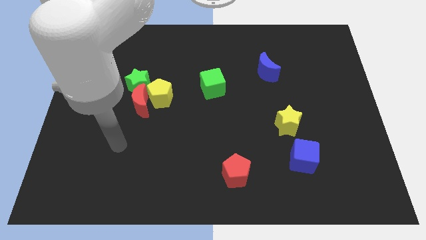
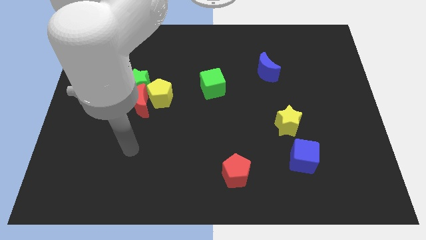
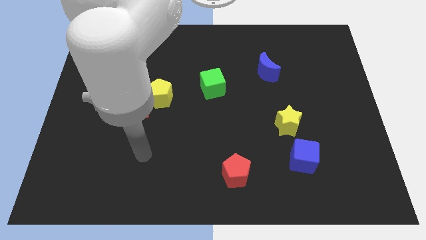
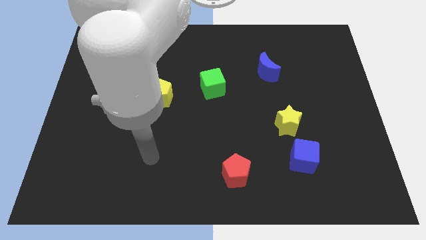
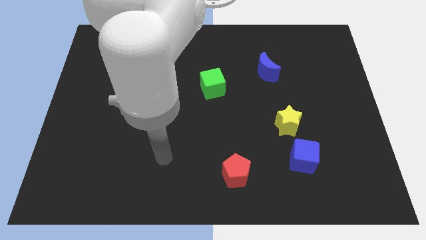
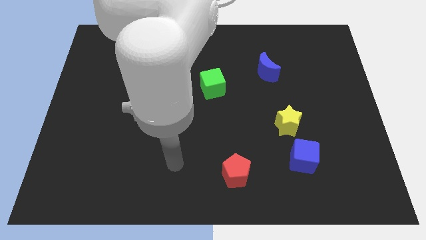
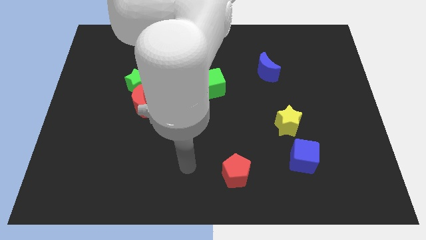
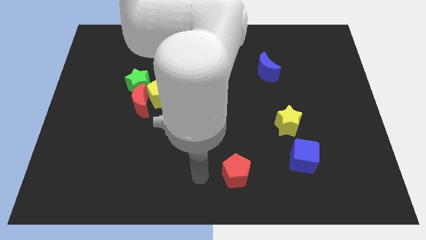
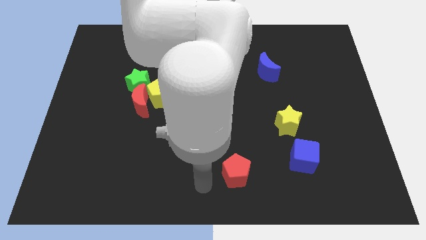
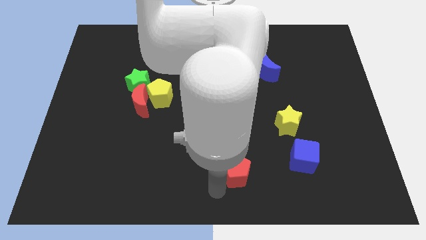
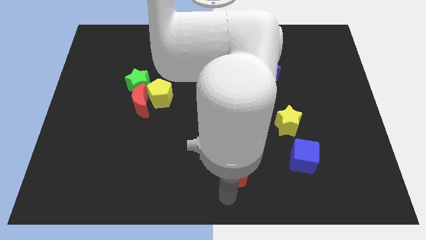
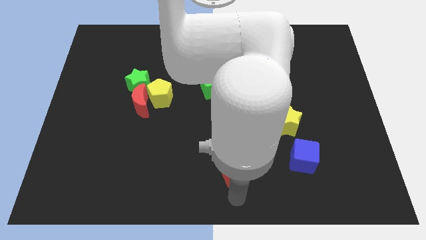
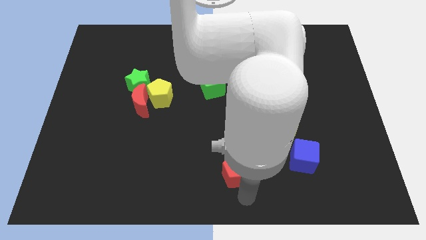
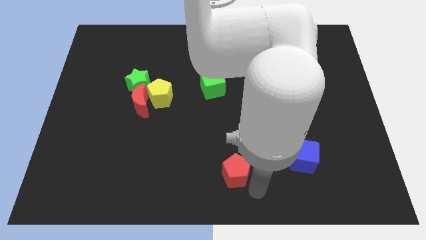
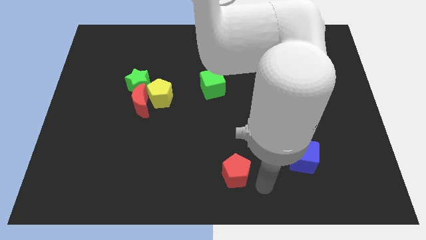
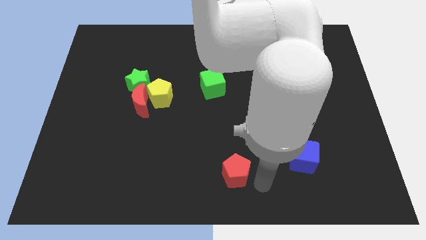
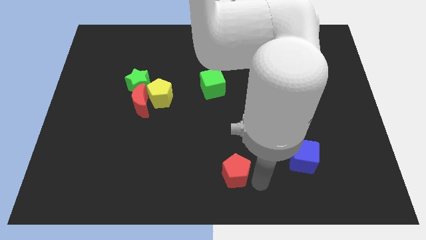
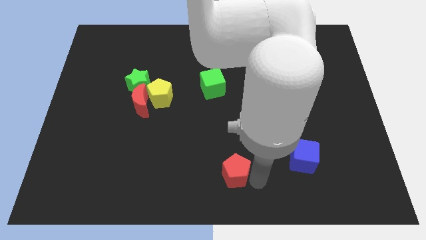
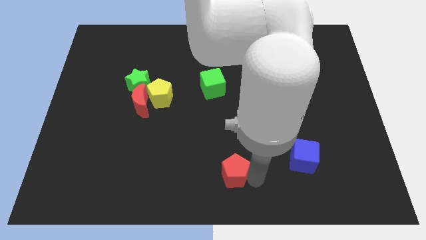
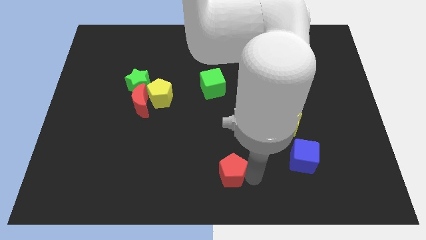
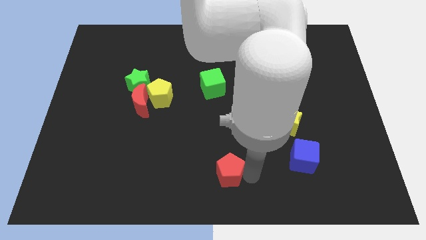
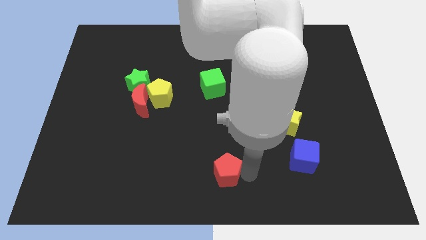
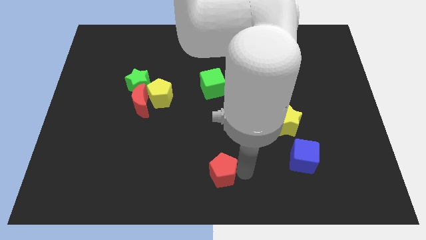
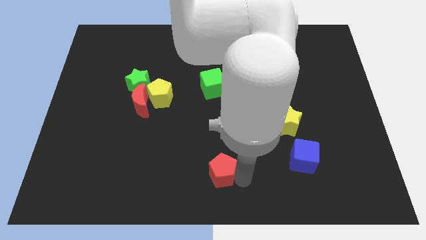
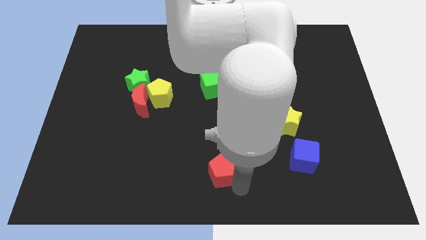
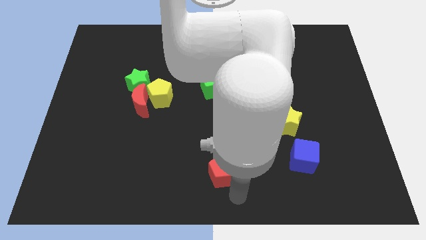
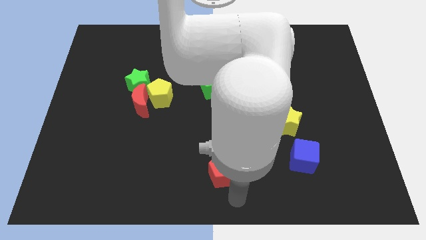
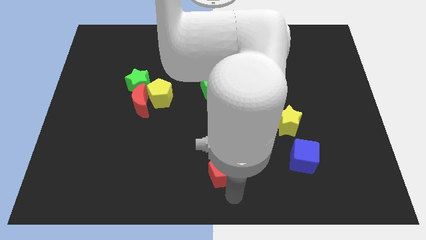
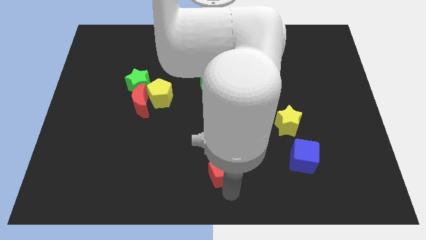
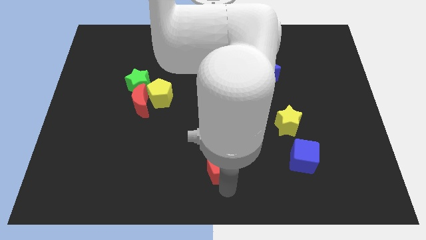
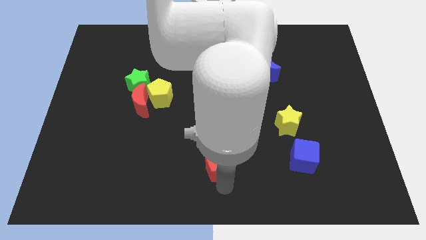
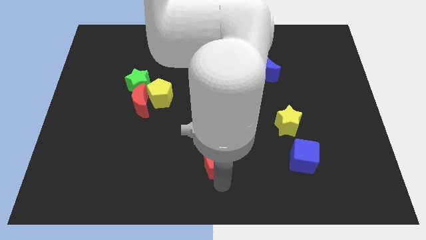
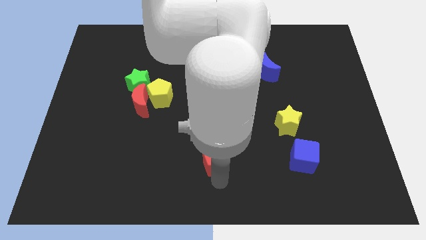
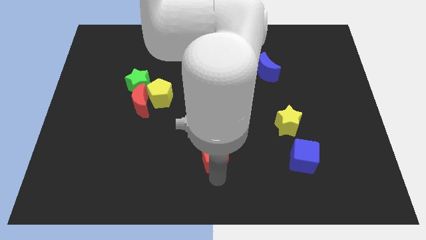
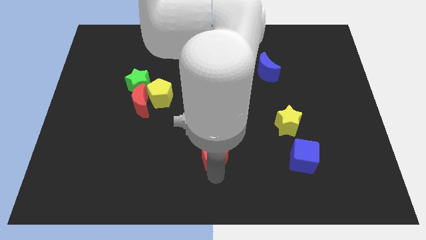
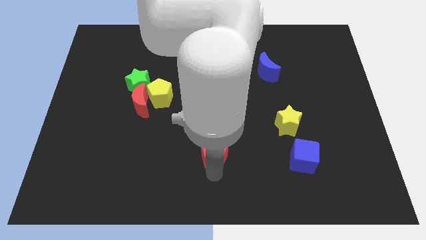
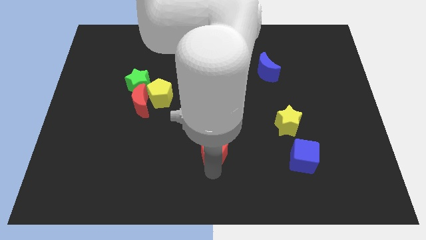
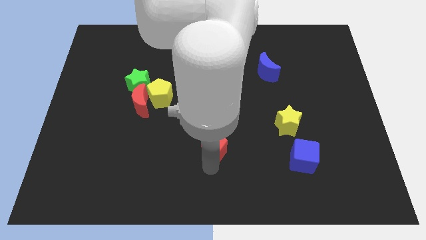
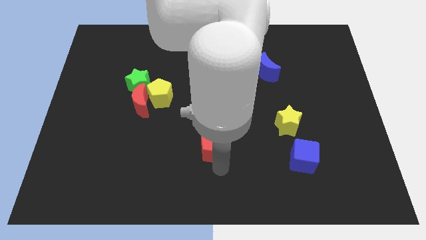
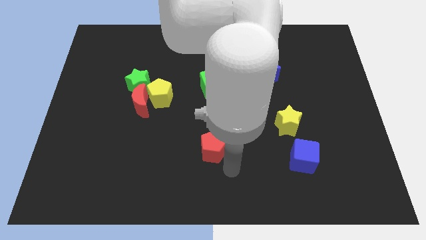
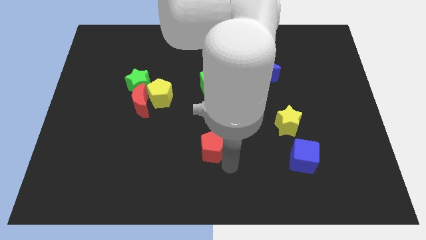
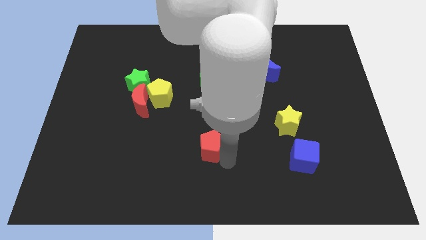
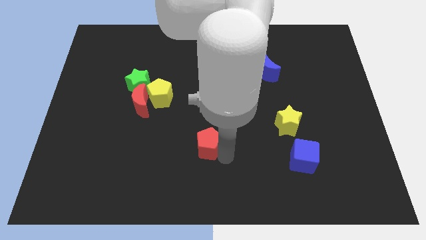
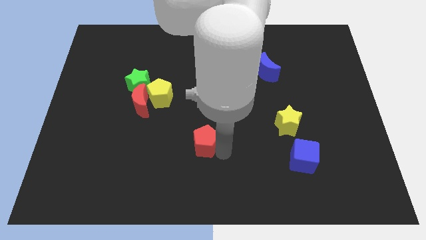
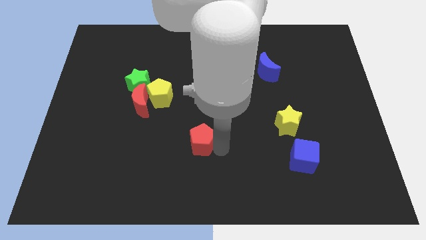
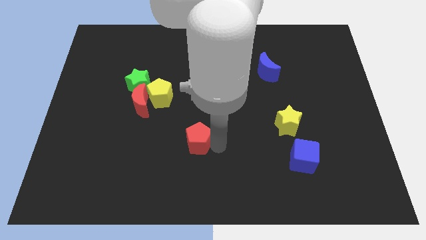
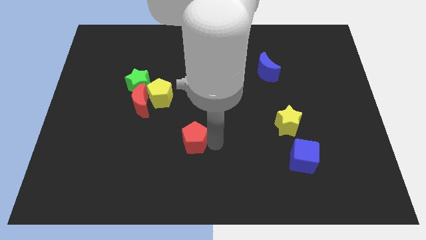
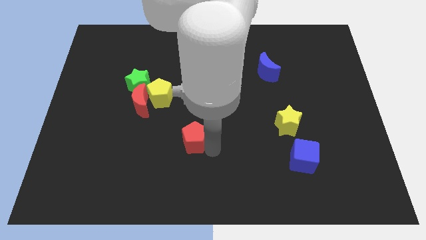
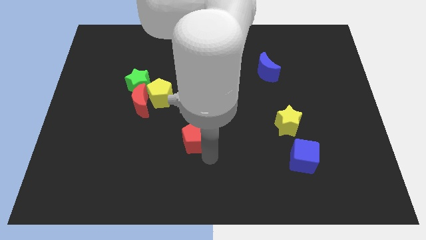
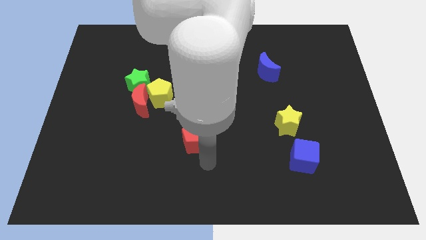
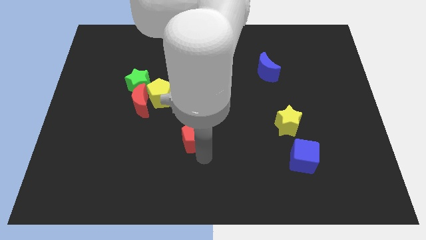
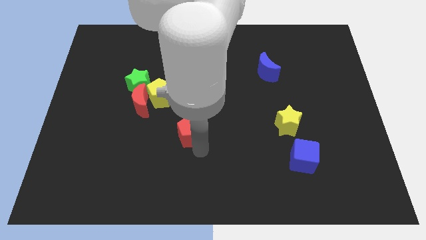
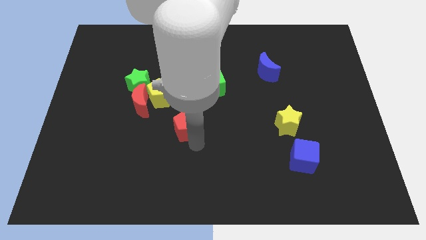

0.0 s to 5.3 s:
slide the red pentagon to the bottom right of the yellow pentagon

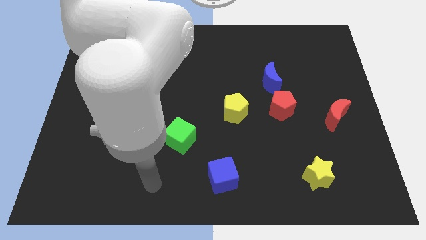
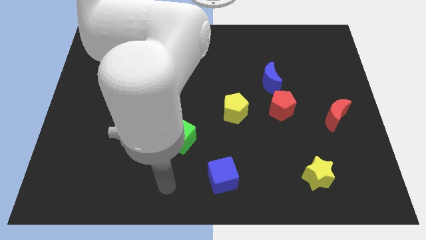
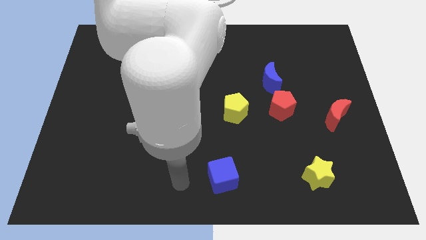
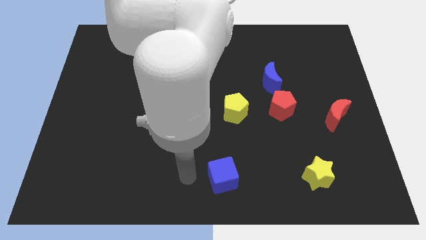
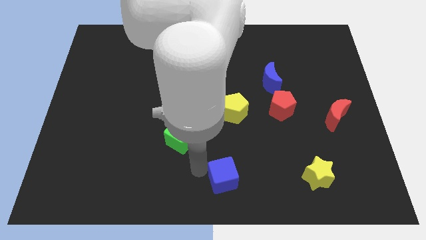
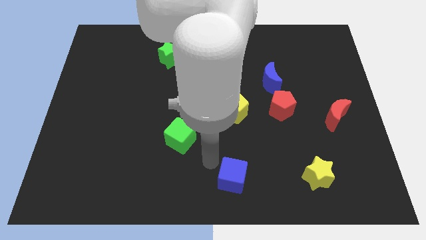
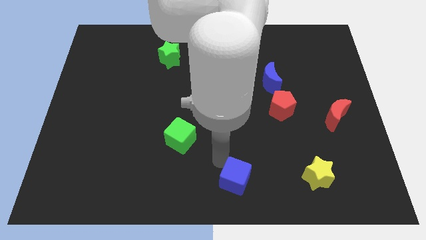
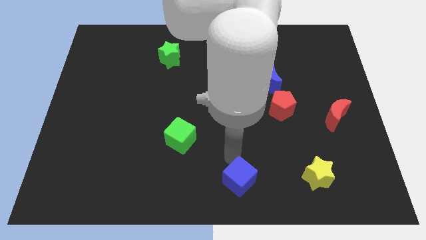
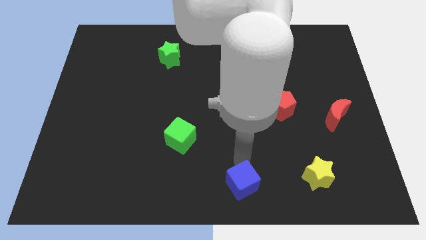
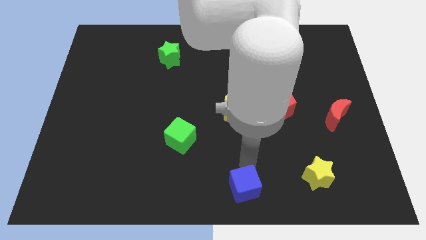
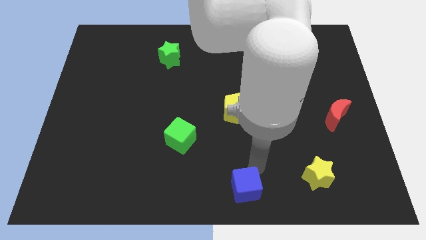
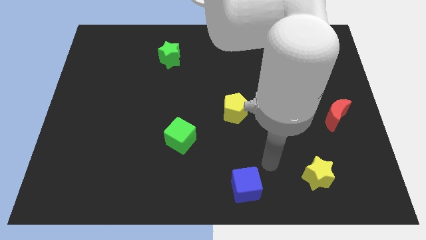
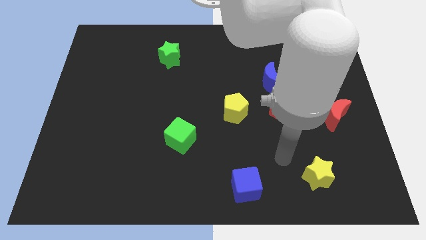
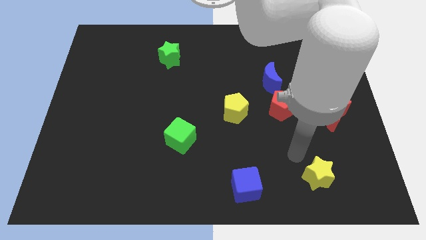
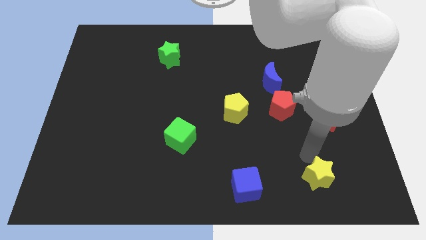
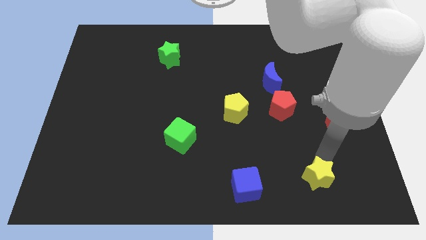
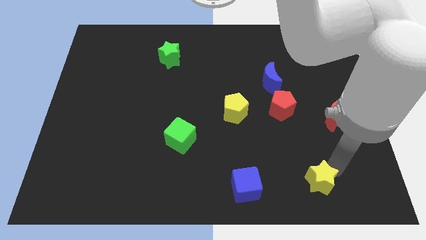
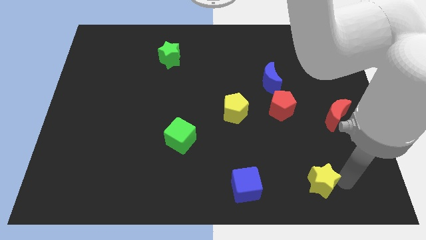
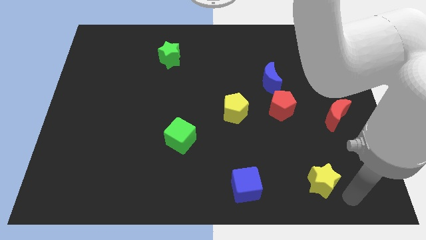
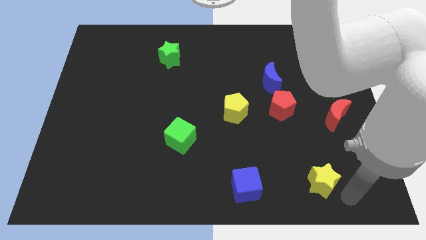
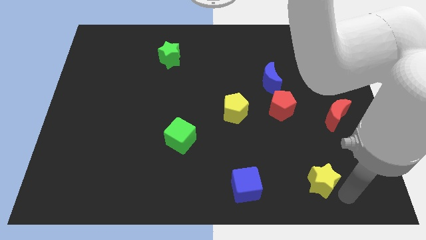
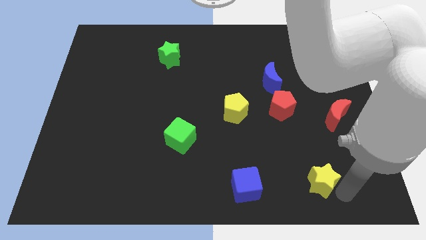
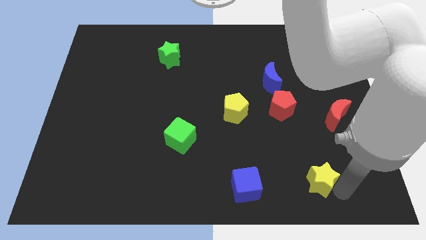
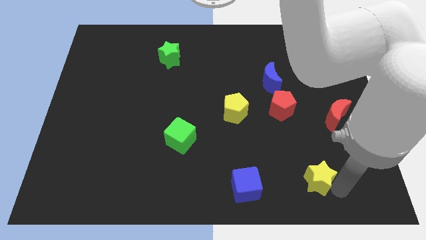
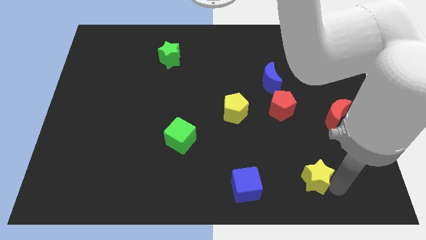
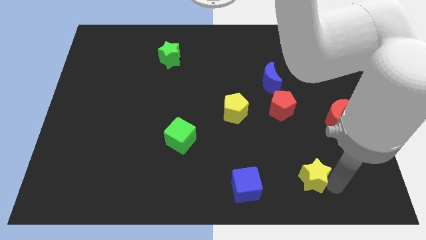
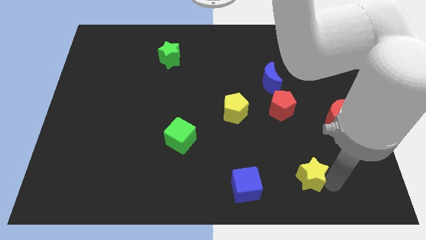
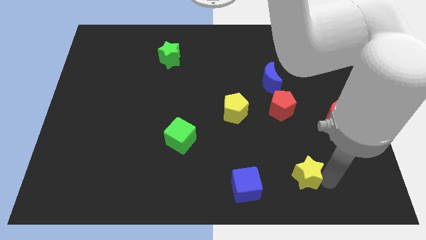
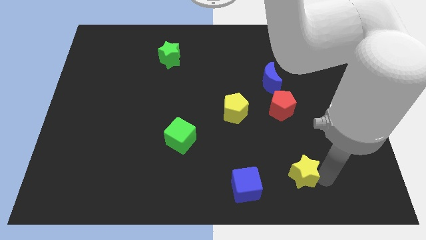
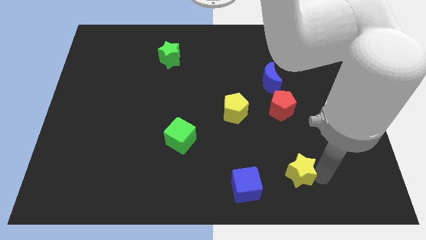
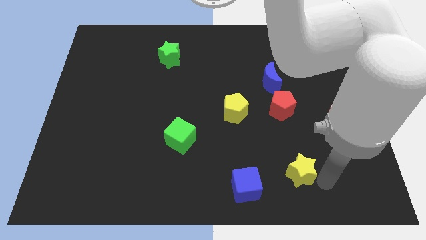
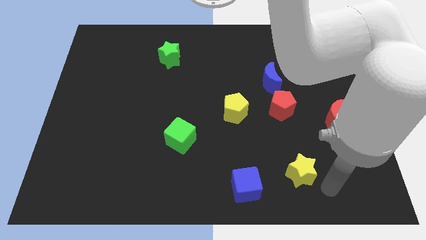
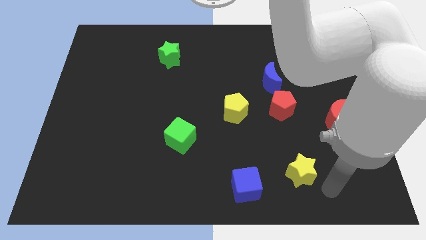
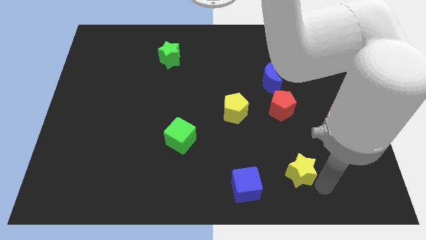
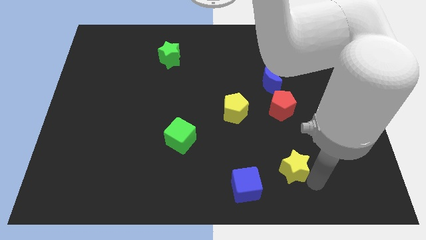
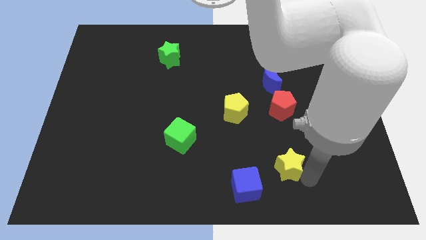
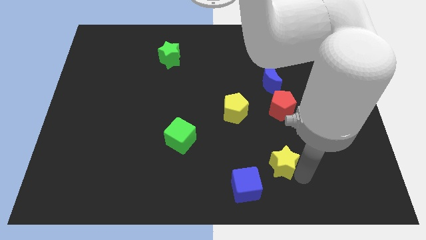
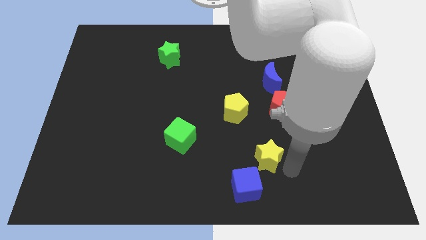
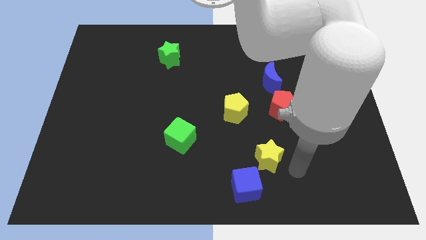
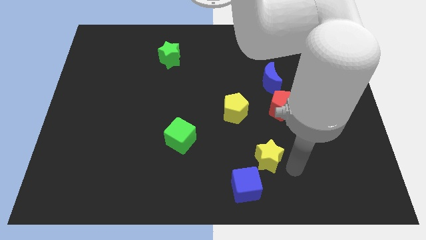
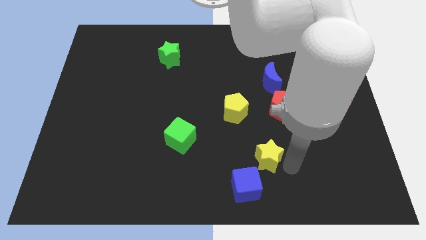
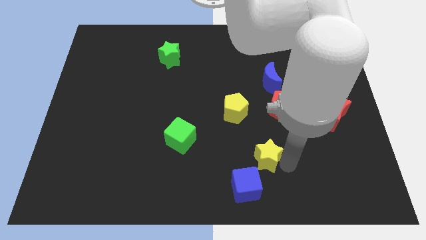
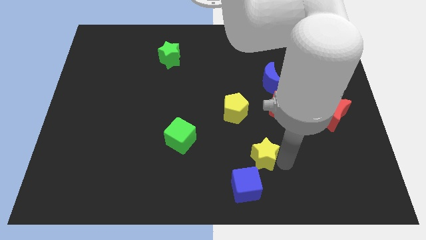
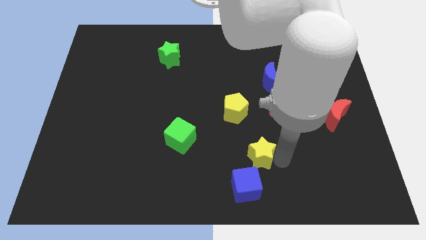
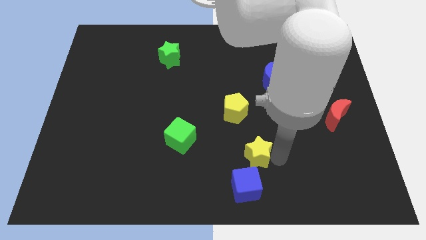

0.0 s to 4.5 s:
put the yellow star below the yellow pentagon
